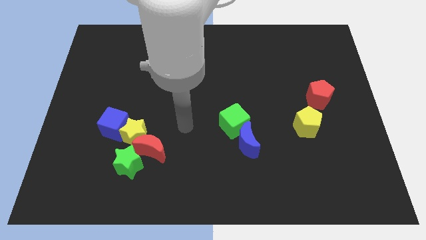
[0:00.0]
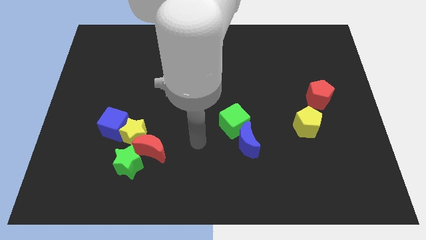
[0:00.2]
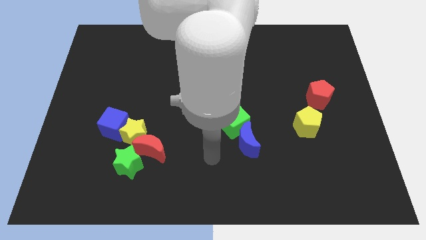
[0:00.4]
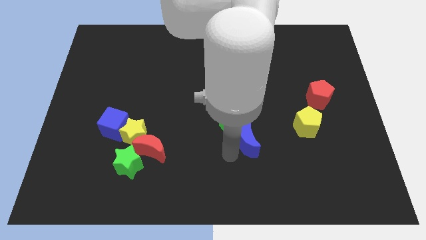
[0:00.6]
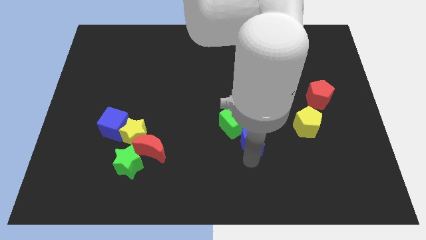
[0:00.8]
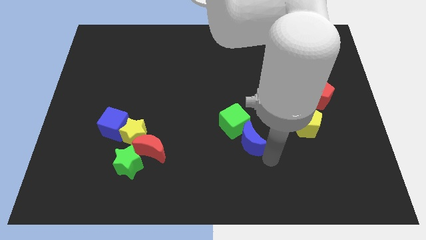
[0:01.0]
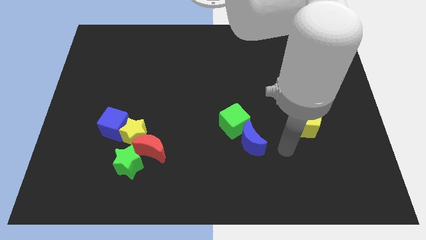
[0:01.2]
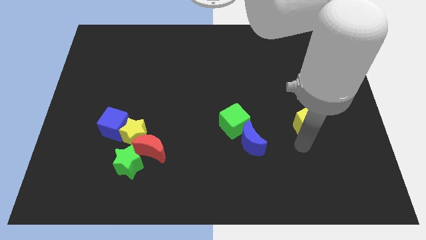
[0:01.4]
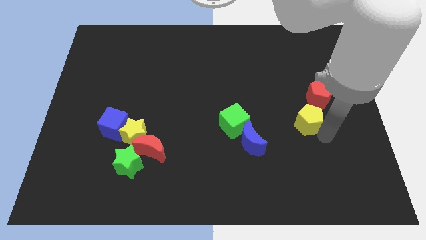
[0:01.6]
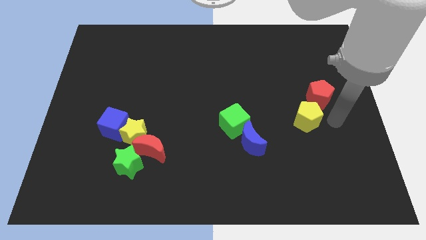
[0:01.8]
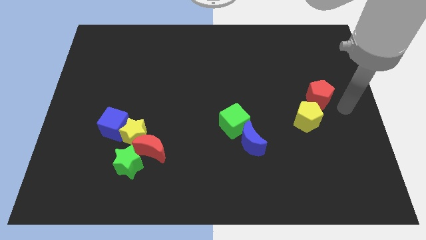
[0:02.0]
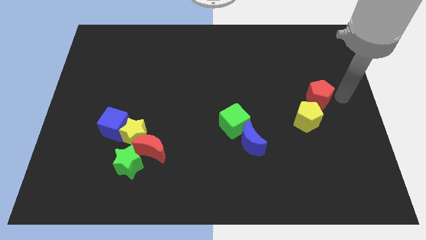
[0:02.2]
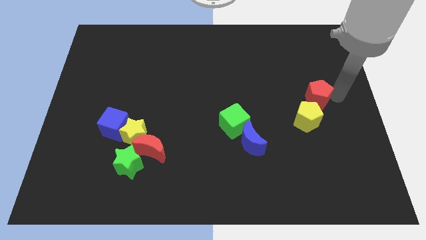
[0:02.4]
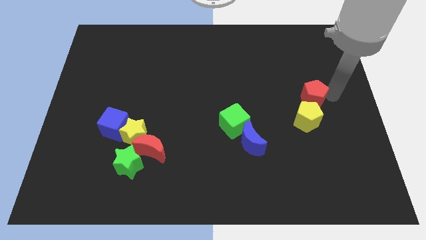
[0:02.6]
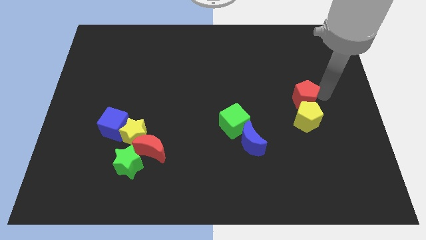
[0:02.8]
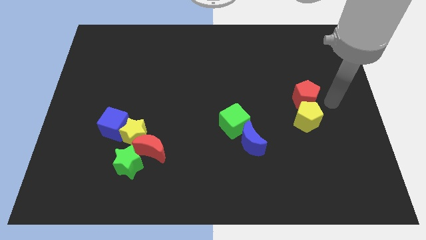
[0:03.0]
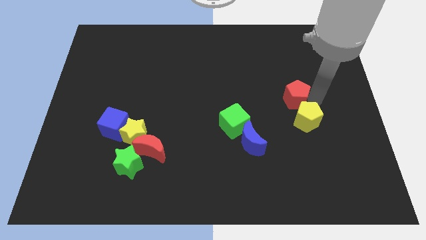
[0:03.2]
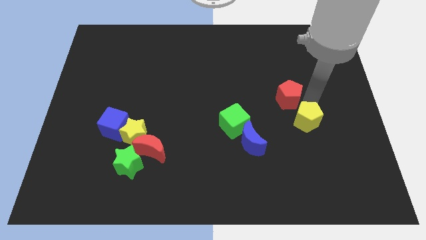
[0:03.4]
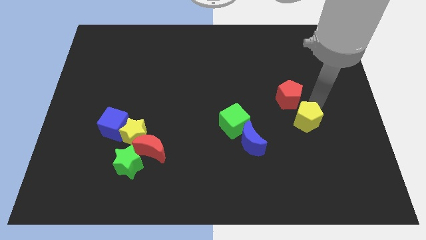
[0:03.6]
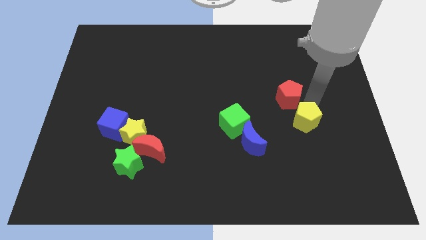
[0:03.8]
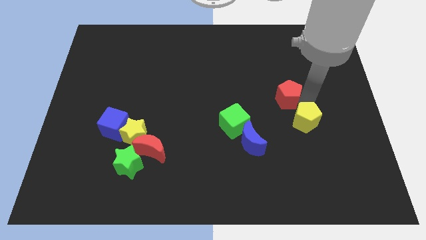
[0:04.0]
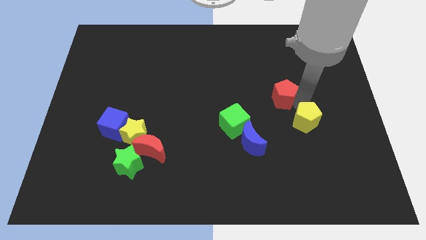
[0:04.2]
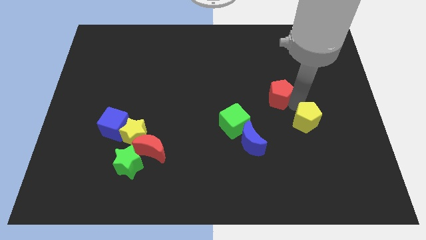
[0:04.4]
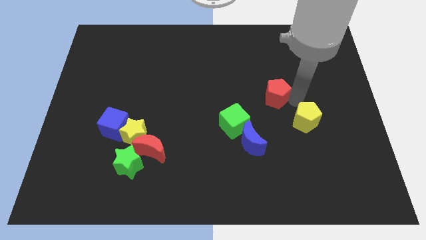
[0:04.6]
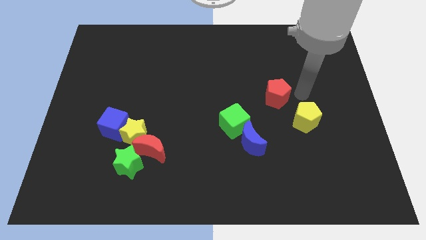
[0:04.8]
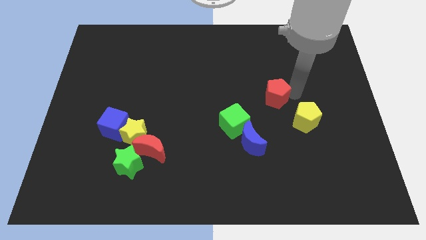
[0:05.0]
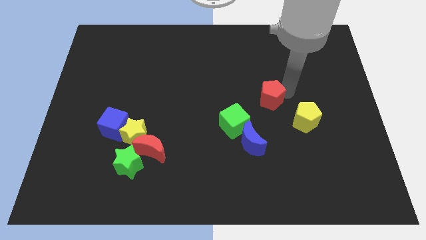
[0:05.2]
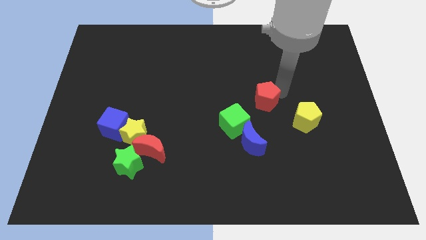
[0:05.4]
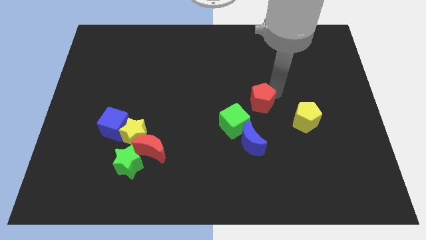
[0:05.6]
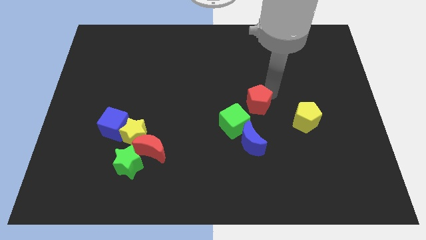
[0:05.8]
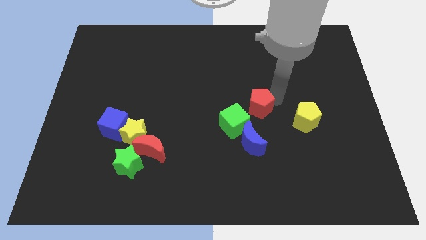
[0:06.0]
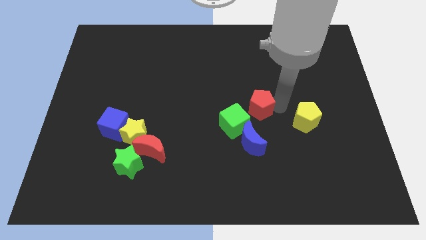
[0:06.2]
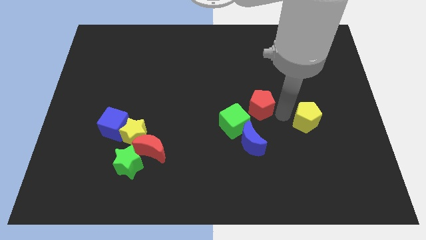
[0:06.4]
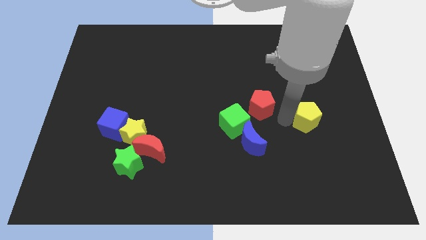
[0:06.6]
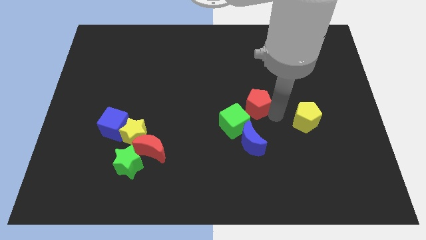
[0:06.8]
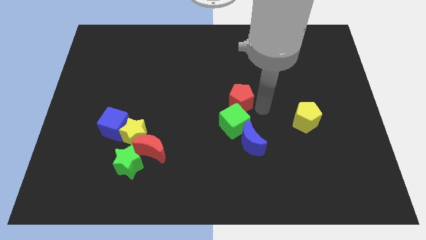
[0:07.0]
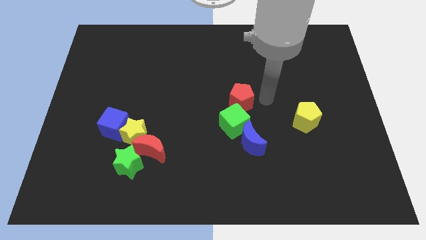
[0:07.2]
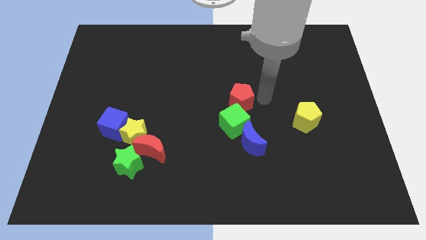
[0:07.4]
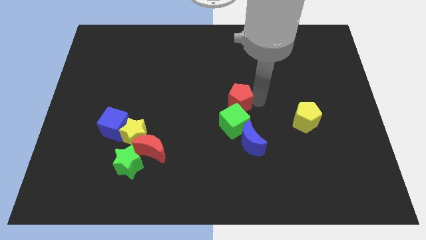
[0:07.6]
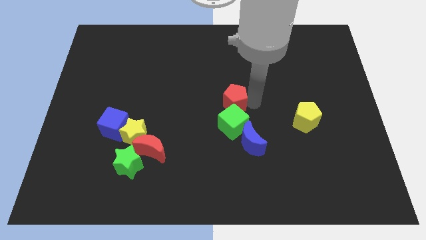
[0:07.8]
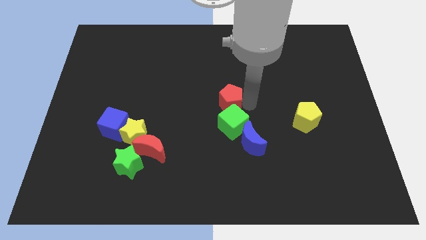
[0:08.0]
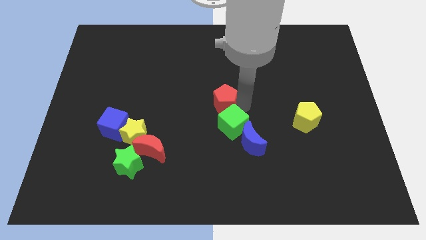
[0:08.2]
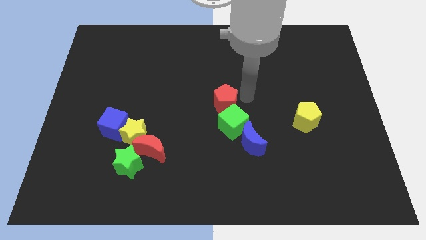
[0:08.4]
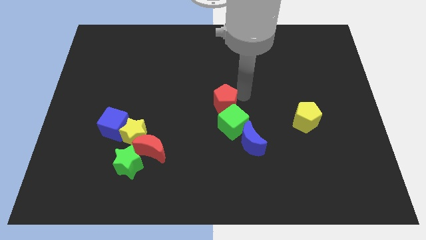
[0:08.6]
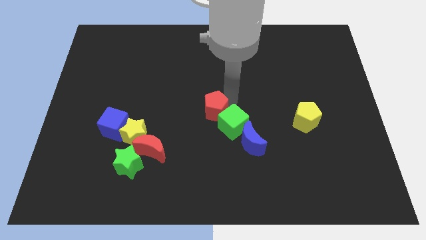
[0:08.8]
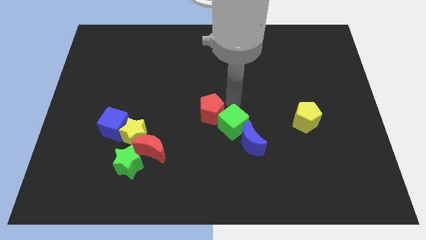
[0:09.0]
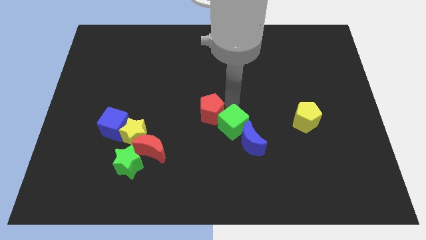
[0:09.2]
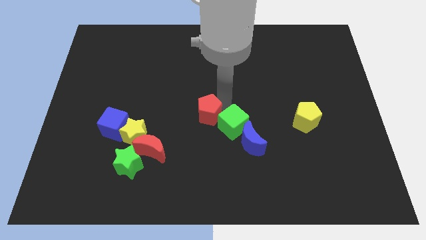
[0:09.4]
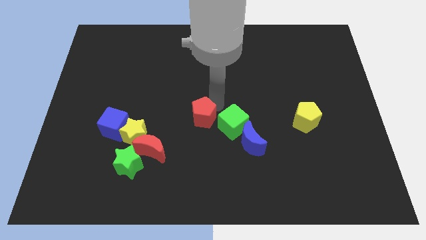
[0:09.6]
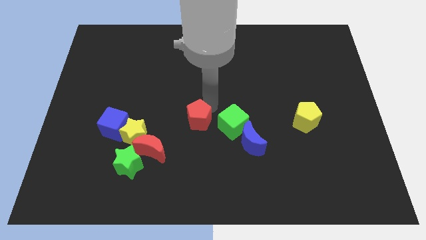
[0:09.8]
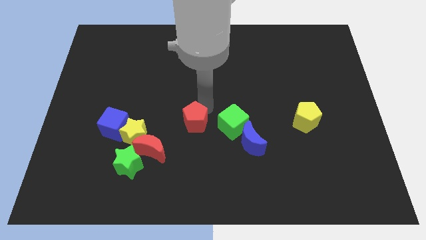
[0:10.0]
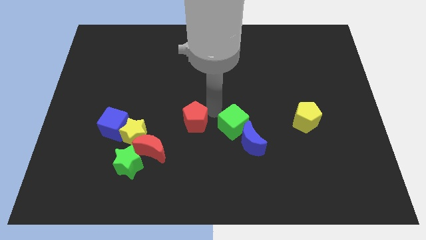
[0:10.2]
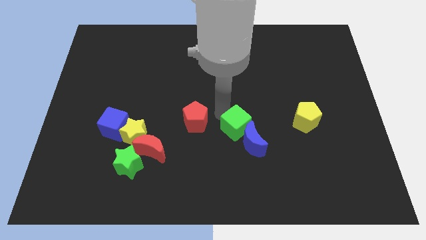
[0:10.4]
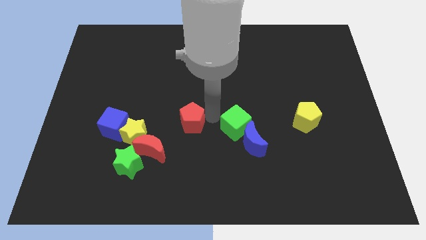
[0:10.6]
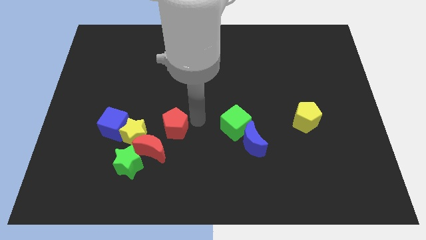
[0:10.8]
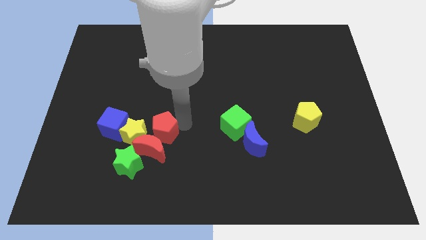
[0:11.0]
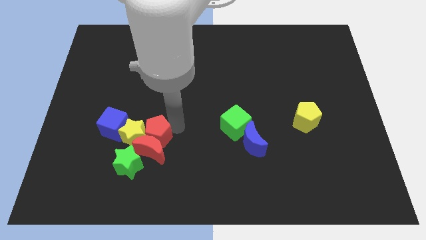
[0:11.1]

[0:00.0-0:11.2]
move the red pentagon next to the yellow star

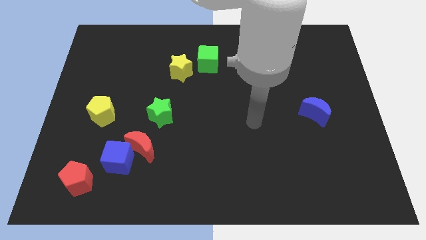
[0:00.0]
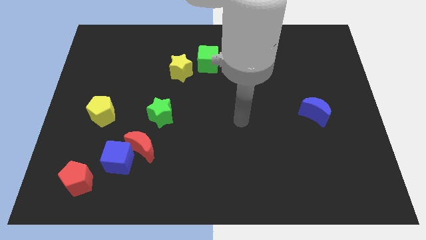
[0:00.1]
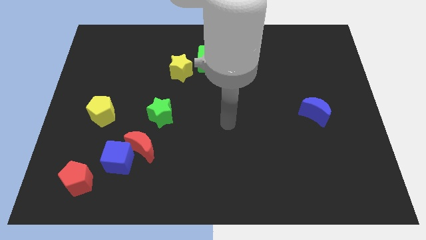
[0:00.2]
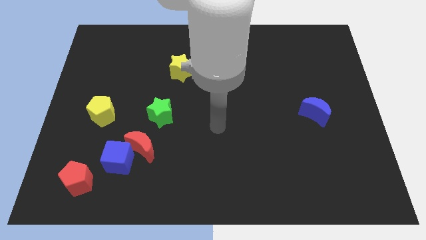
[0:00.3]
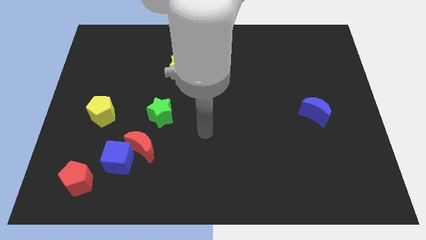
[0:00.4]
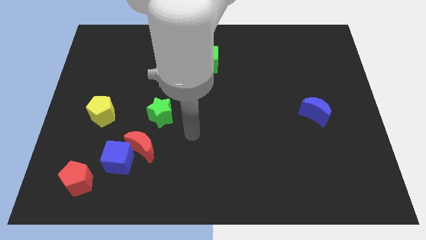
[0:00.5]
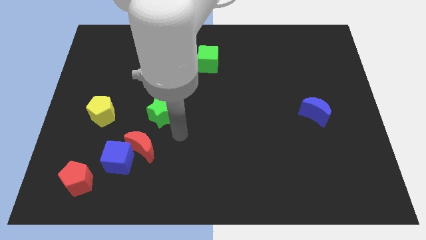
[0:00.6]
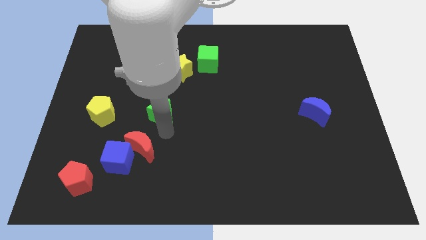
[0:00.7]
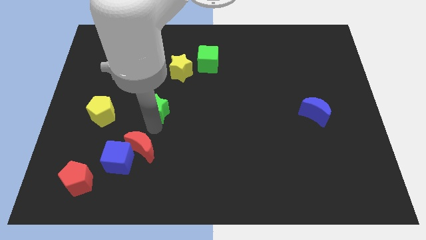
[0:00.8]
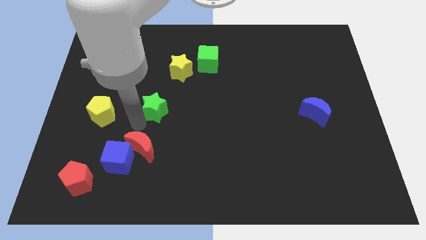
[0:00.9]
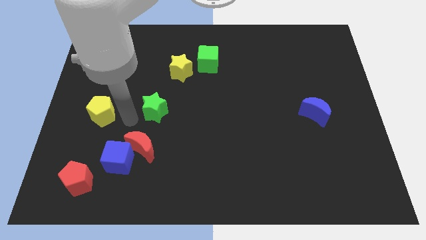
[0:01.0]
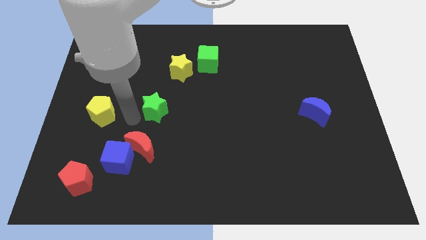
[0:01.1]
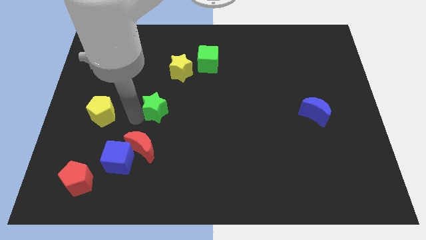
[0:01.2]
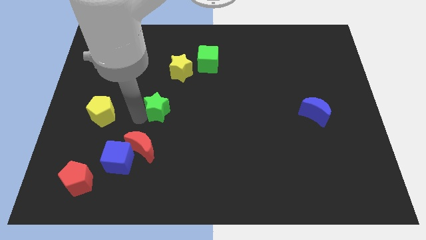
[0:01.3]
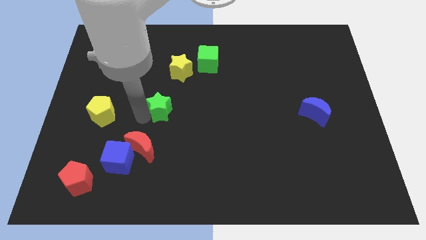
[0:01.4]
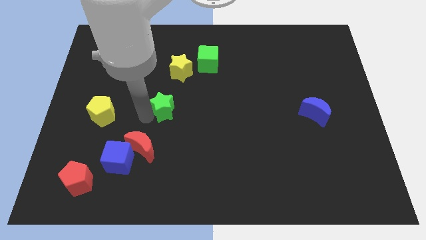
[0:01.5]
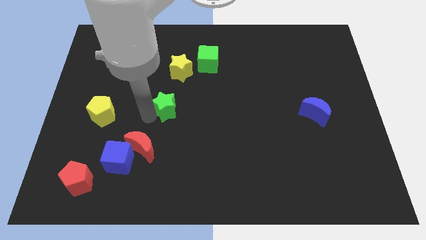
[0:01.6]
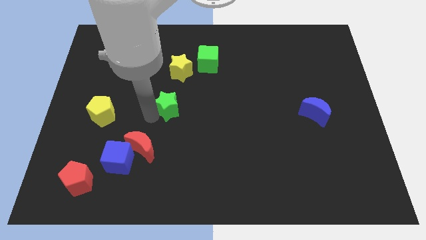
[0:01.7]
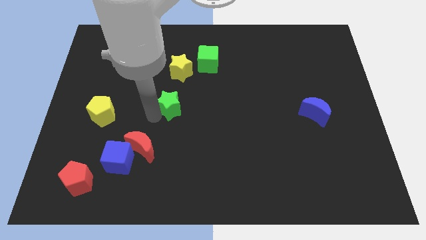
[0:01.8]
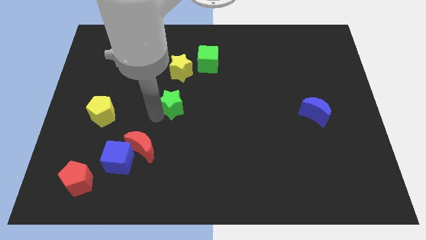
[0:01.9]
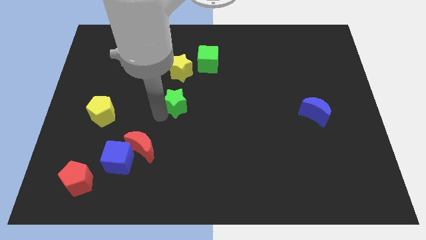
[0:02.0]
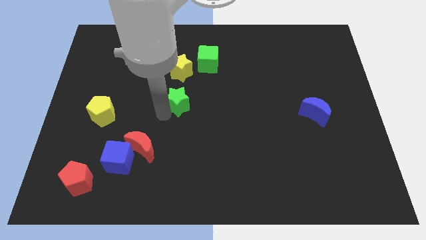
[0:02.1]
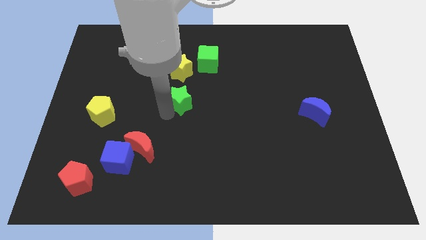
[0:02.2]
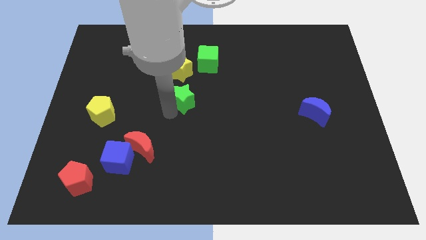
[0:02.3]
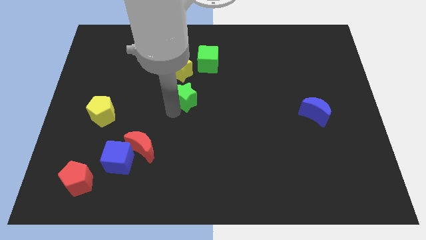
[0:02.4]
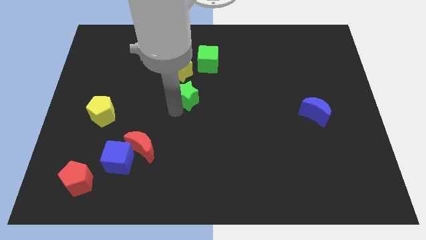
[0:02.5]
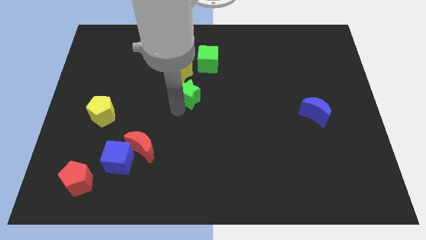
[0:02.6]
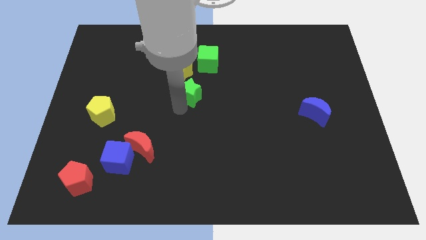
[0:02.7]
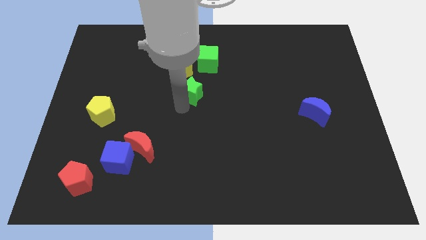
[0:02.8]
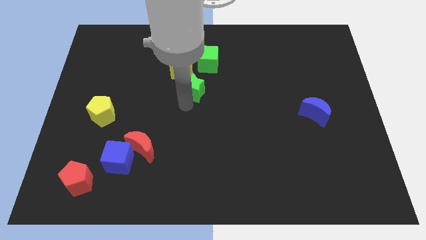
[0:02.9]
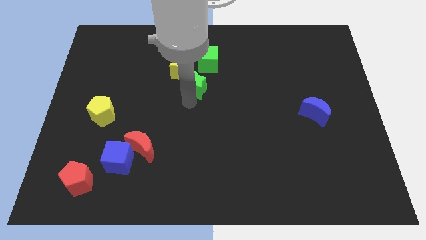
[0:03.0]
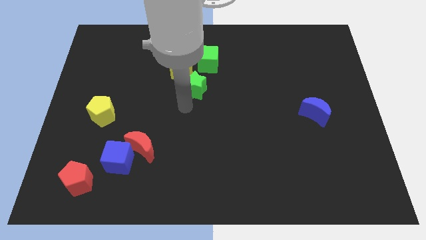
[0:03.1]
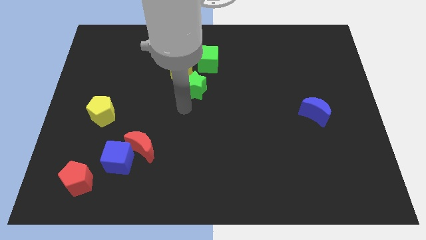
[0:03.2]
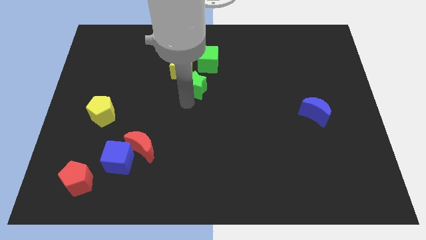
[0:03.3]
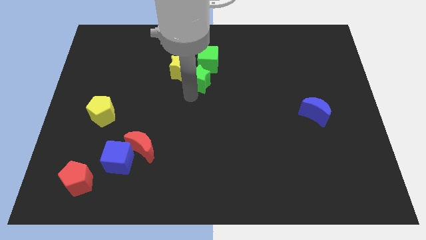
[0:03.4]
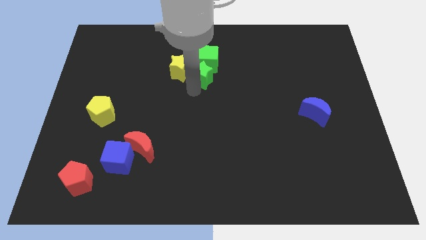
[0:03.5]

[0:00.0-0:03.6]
slide the green star next to the green cube
